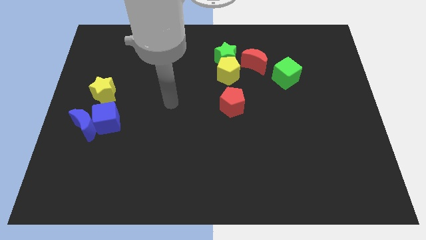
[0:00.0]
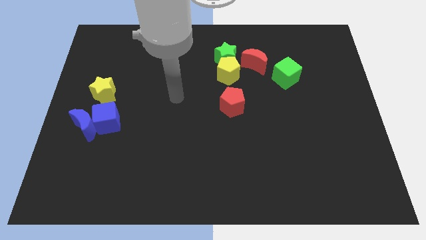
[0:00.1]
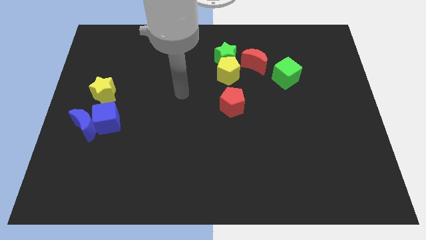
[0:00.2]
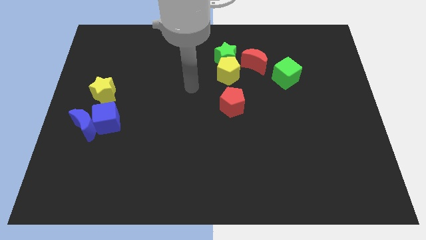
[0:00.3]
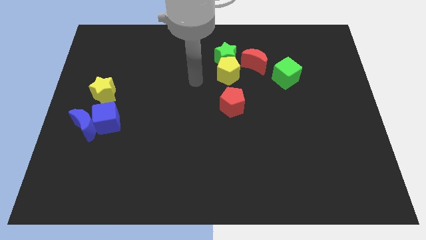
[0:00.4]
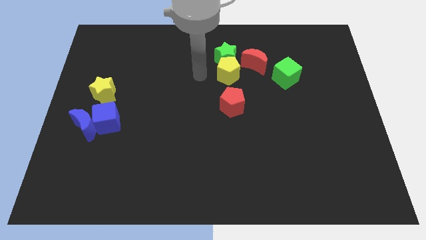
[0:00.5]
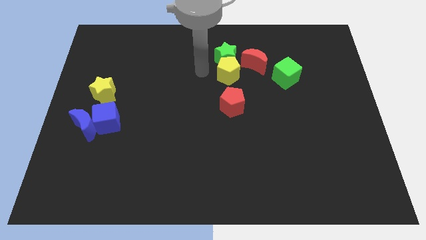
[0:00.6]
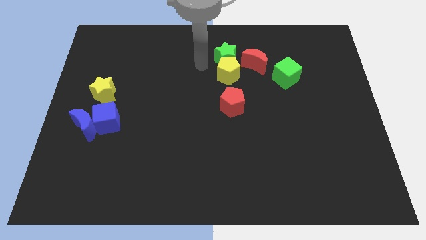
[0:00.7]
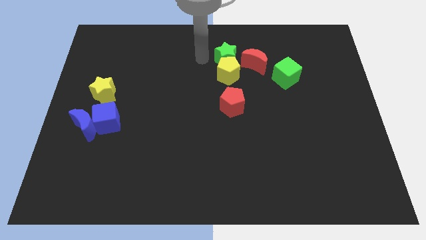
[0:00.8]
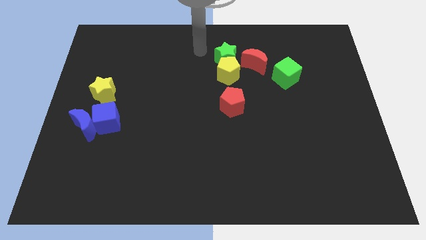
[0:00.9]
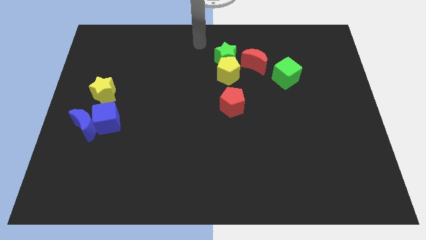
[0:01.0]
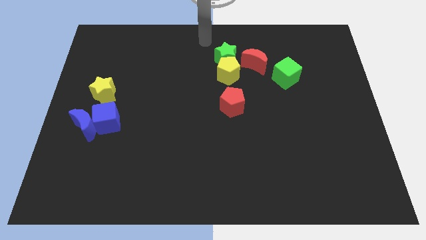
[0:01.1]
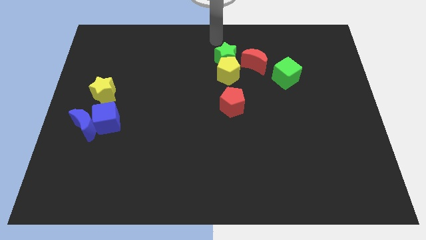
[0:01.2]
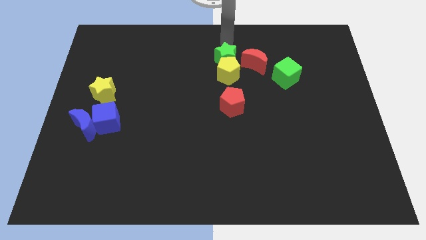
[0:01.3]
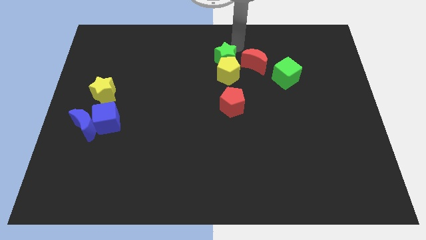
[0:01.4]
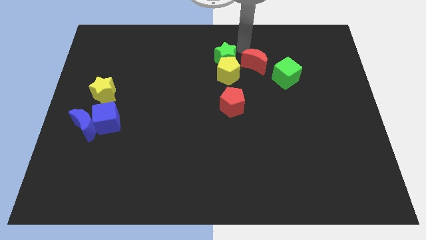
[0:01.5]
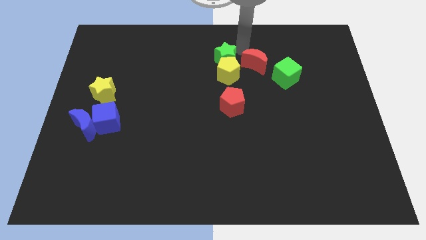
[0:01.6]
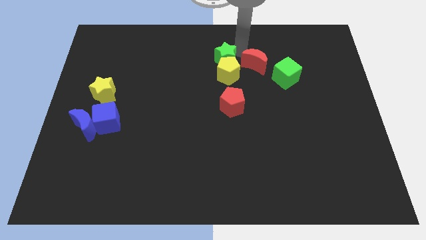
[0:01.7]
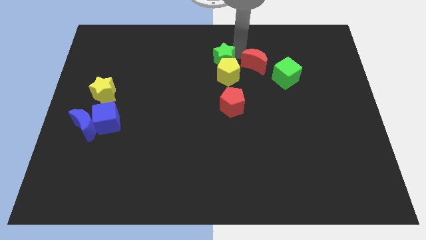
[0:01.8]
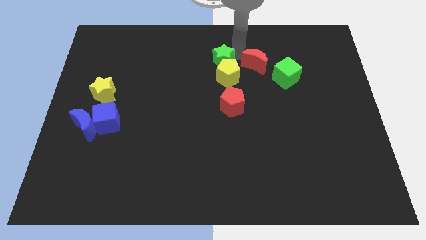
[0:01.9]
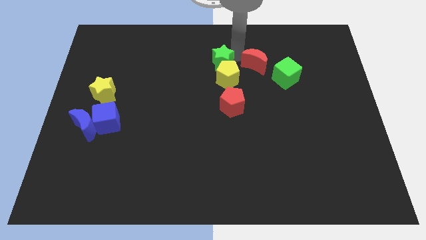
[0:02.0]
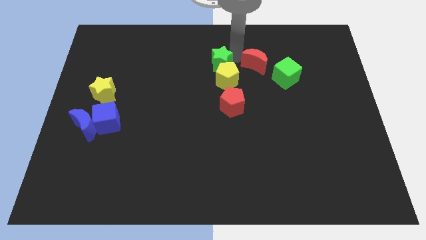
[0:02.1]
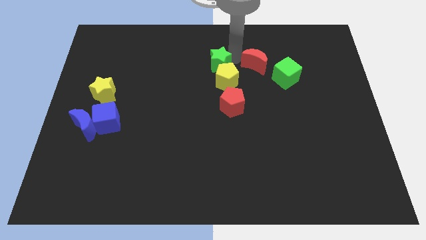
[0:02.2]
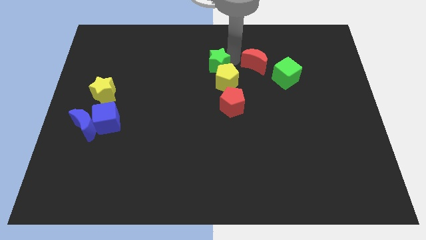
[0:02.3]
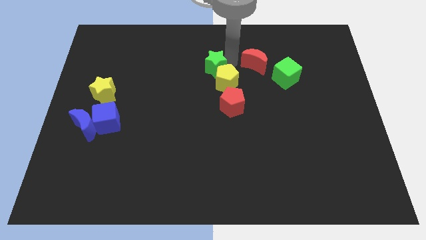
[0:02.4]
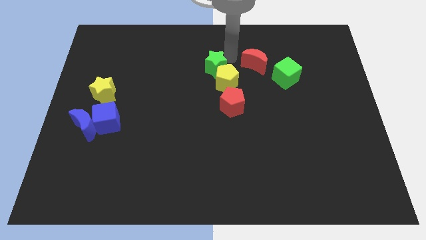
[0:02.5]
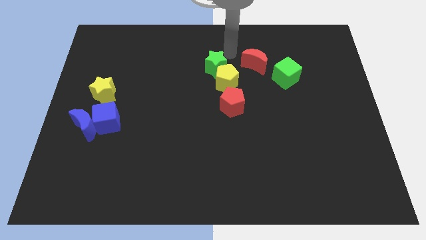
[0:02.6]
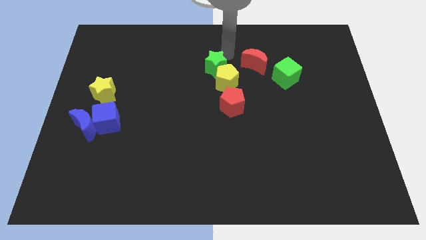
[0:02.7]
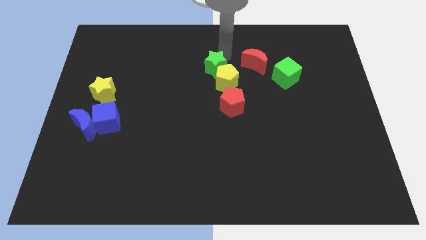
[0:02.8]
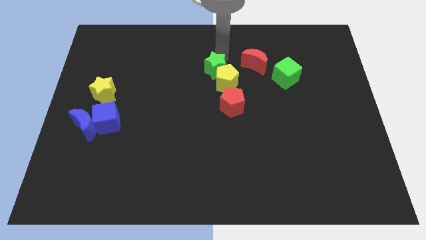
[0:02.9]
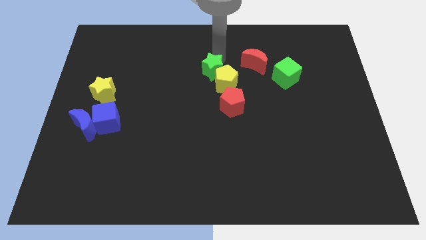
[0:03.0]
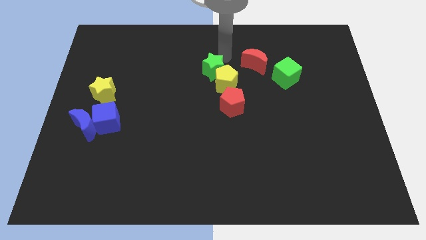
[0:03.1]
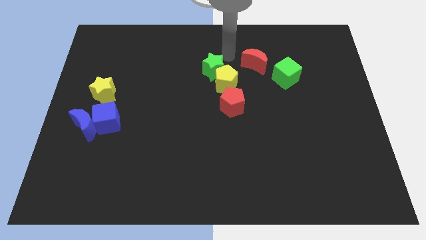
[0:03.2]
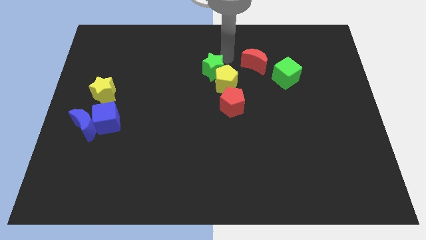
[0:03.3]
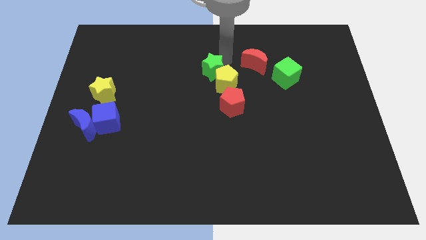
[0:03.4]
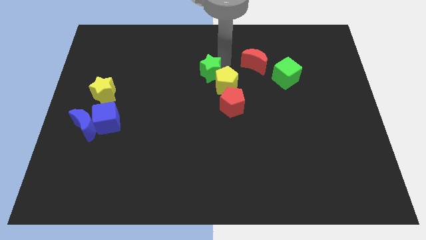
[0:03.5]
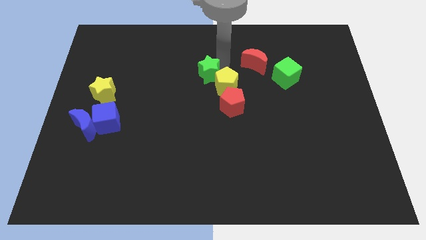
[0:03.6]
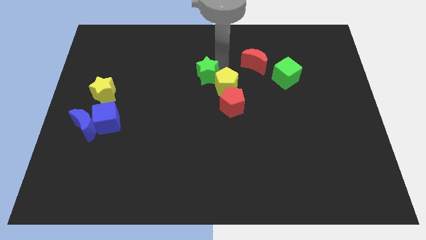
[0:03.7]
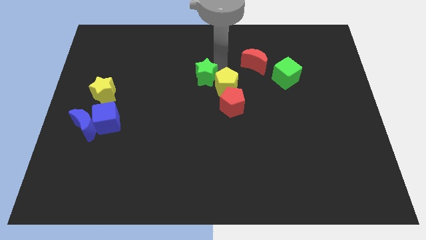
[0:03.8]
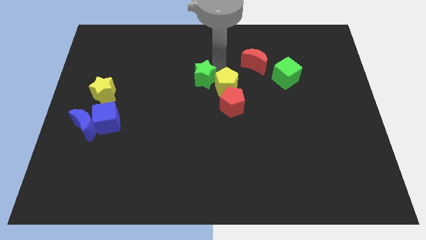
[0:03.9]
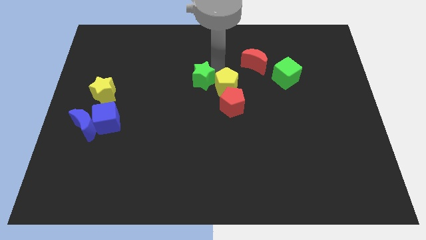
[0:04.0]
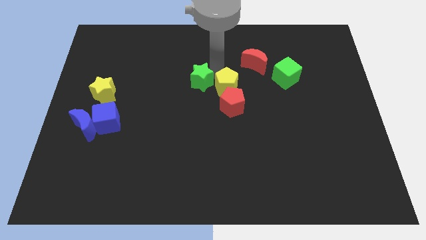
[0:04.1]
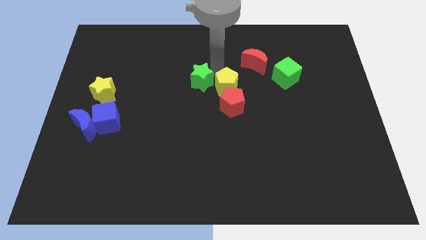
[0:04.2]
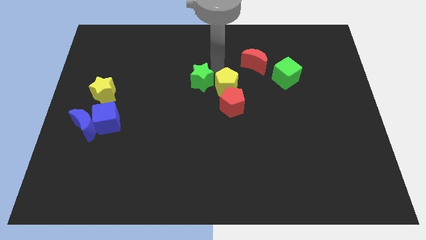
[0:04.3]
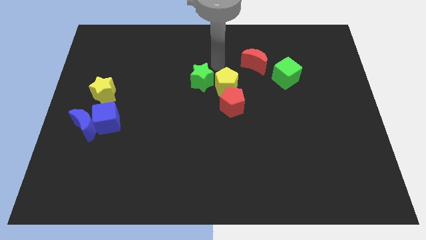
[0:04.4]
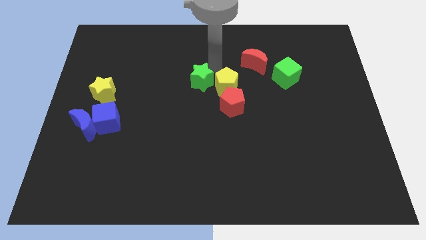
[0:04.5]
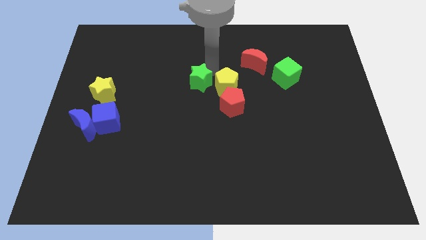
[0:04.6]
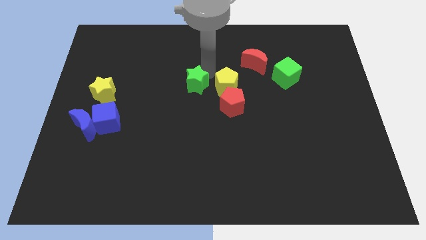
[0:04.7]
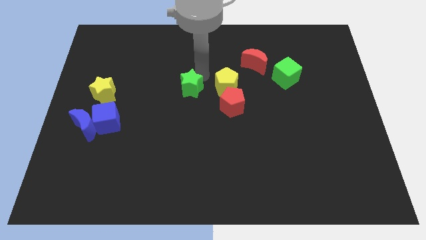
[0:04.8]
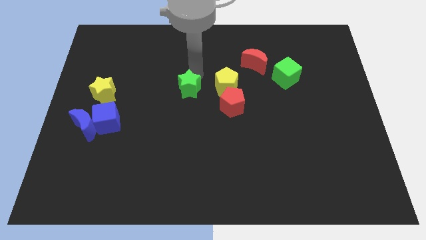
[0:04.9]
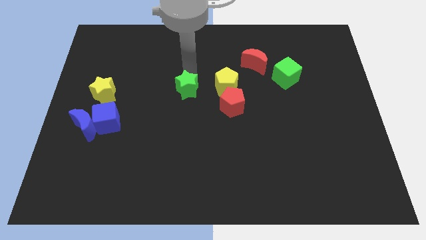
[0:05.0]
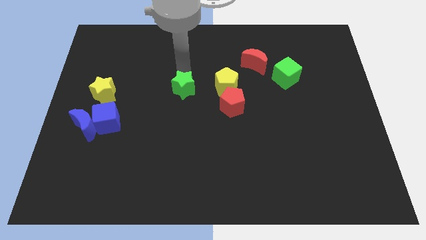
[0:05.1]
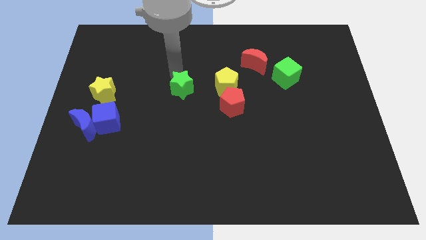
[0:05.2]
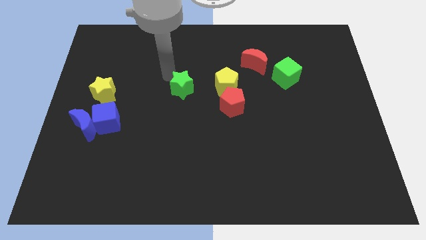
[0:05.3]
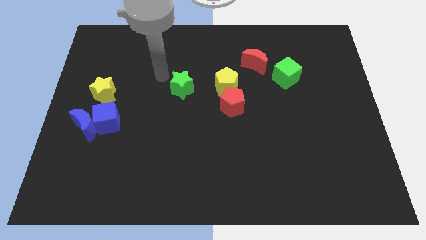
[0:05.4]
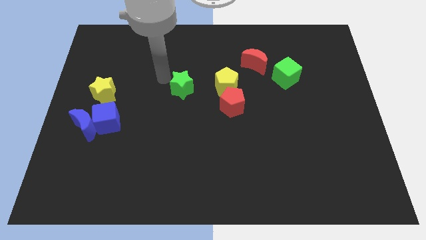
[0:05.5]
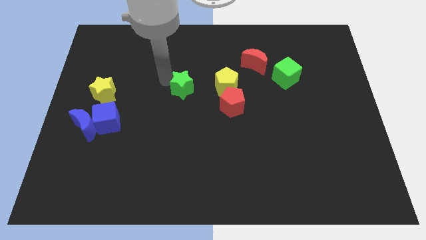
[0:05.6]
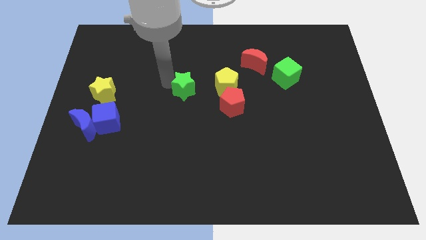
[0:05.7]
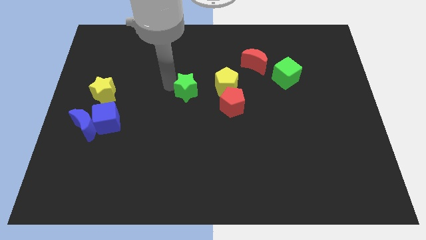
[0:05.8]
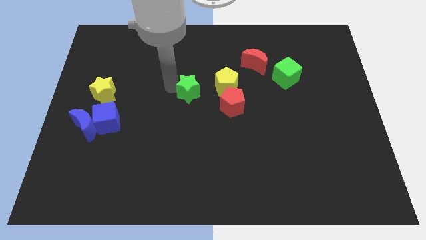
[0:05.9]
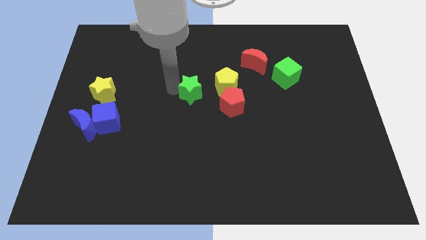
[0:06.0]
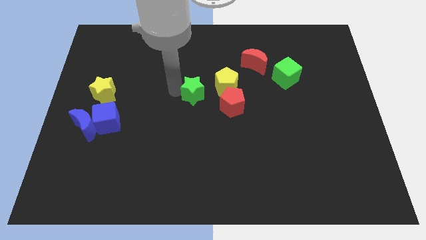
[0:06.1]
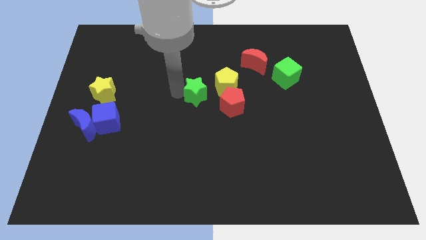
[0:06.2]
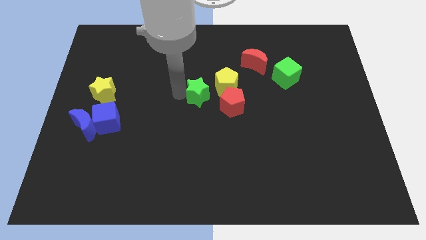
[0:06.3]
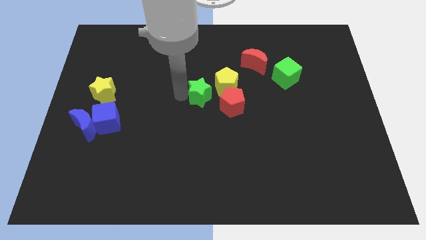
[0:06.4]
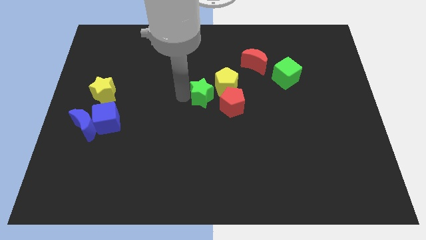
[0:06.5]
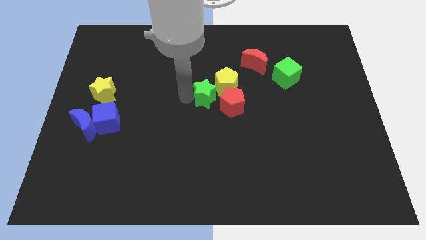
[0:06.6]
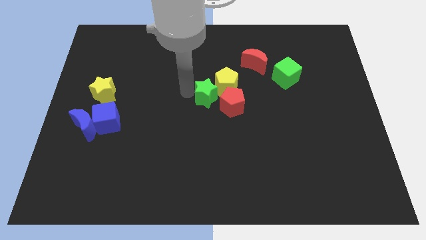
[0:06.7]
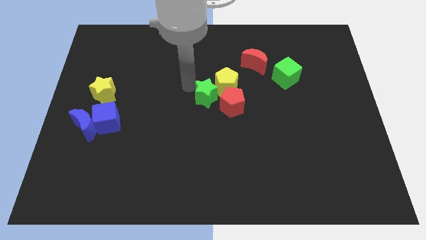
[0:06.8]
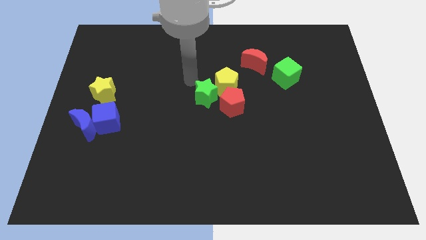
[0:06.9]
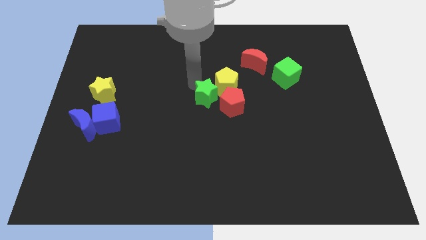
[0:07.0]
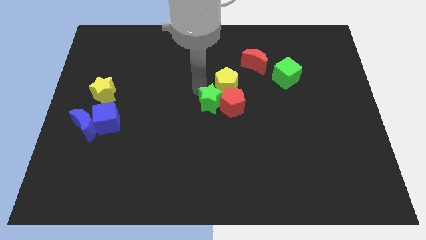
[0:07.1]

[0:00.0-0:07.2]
slide the green star to the bottom side of the yellow pentagon
